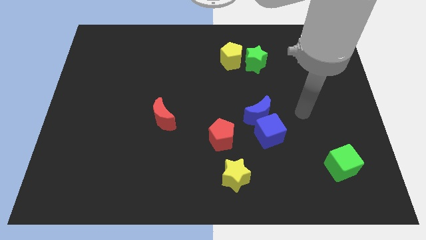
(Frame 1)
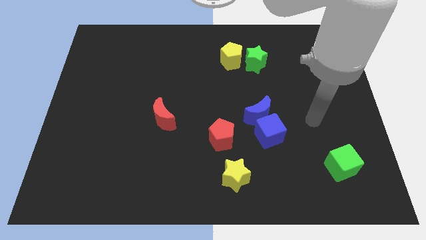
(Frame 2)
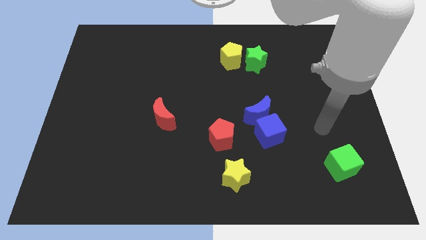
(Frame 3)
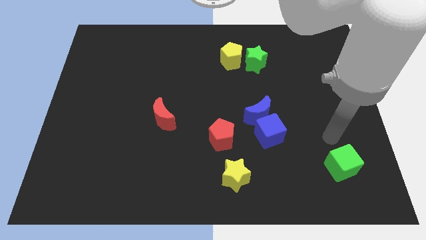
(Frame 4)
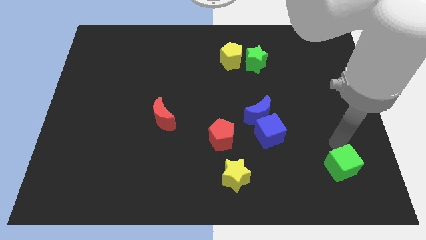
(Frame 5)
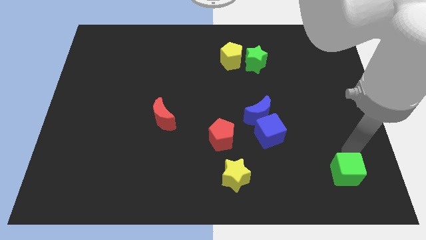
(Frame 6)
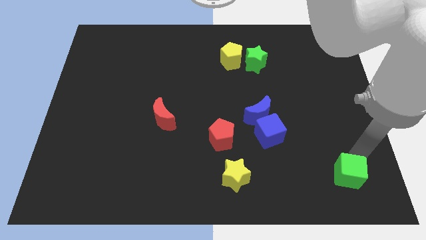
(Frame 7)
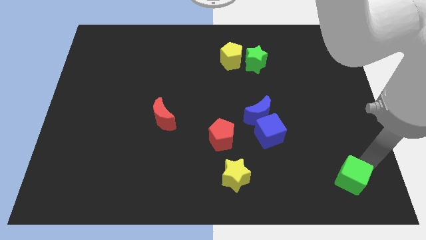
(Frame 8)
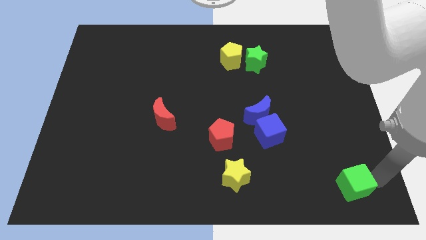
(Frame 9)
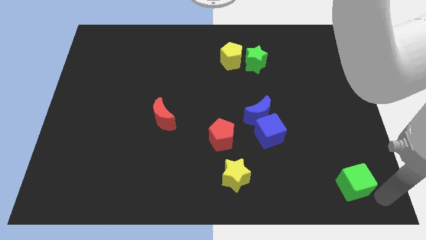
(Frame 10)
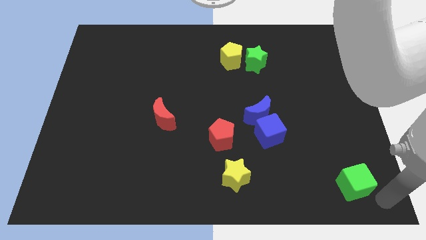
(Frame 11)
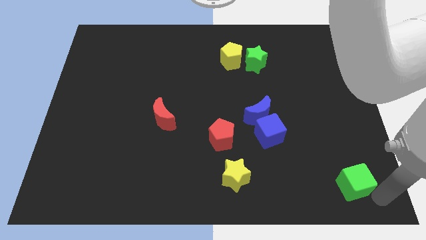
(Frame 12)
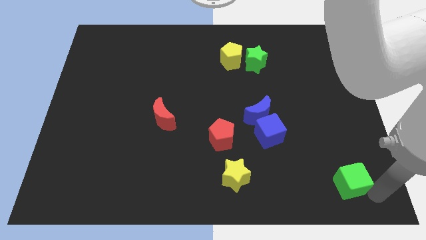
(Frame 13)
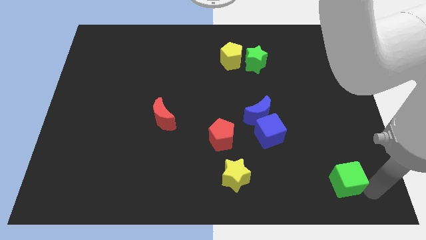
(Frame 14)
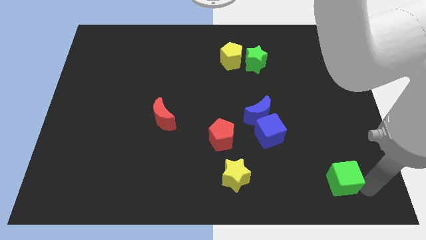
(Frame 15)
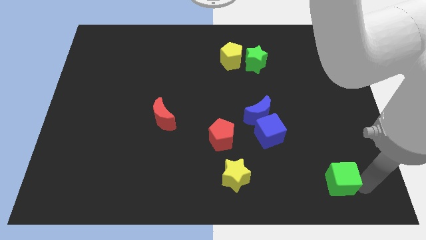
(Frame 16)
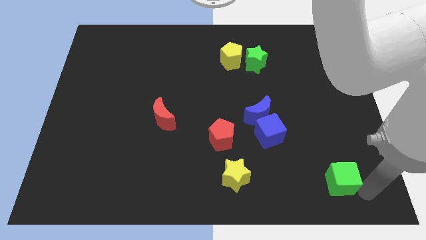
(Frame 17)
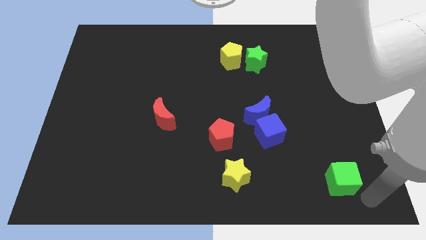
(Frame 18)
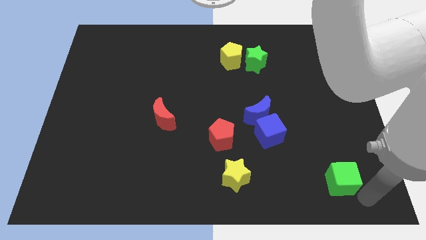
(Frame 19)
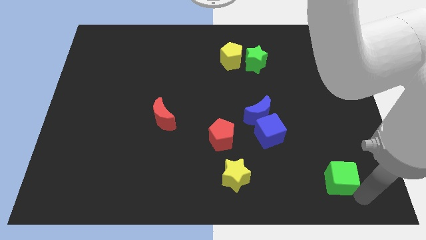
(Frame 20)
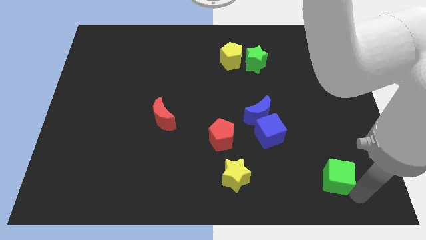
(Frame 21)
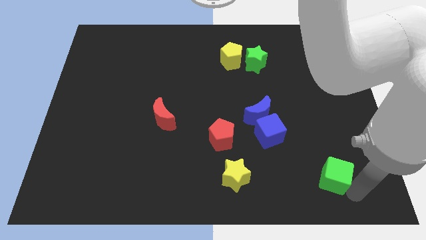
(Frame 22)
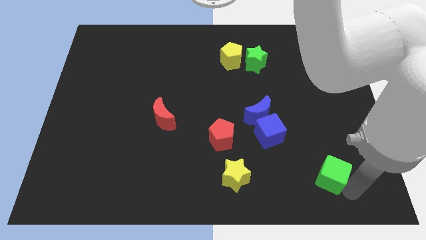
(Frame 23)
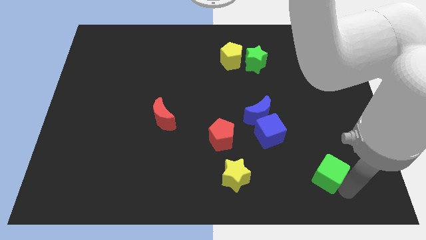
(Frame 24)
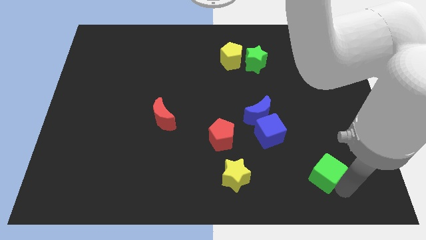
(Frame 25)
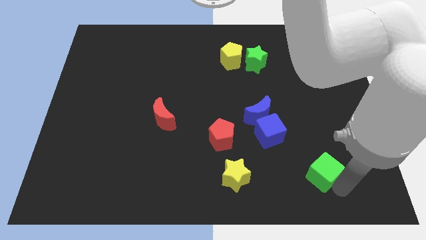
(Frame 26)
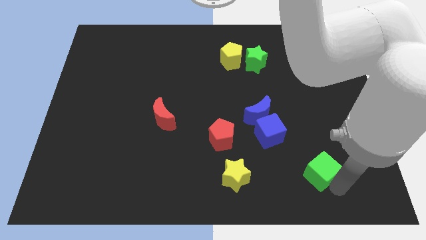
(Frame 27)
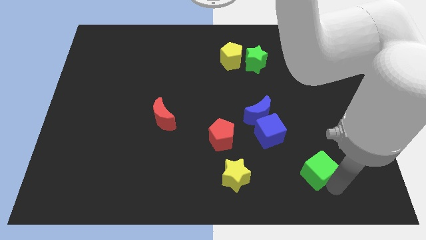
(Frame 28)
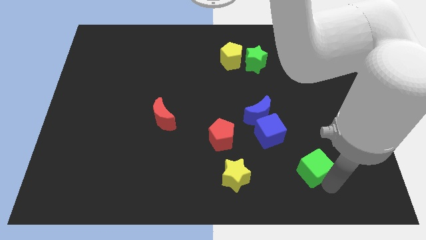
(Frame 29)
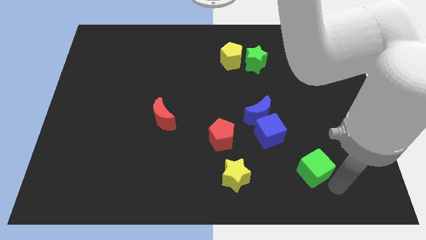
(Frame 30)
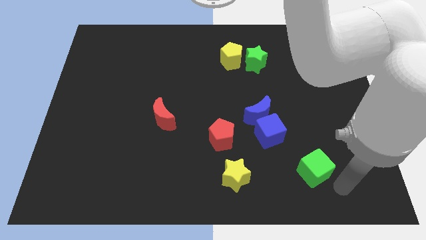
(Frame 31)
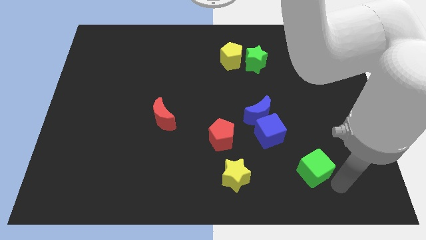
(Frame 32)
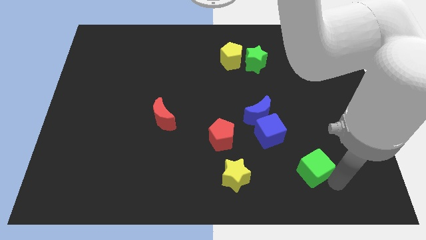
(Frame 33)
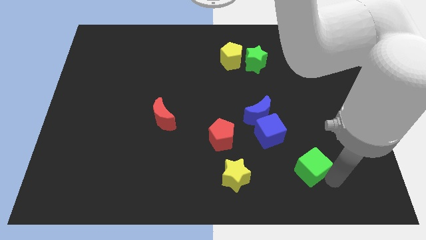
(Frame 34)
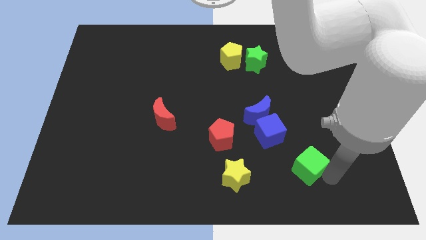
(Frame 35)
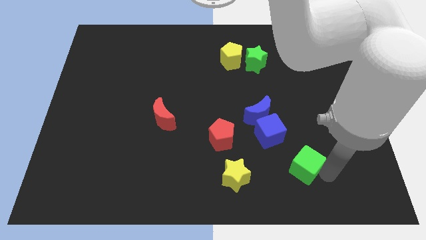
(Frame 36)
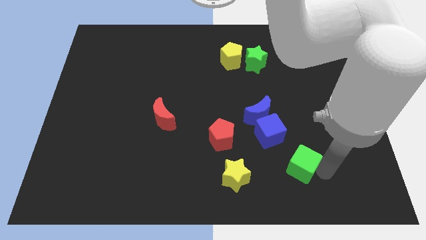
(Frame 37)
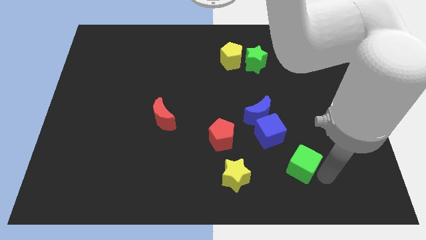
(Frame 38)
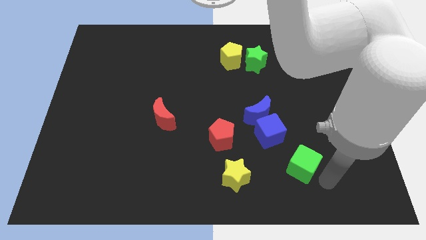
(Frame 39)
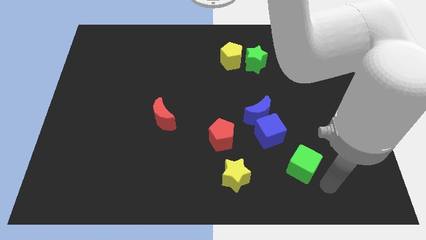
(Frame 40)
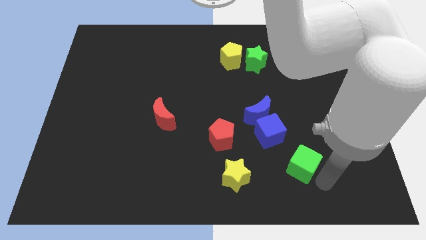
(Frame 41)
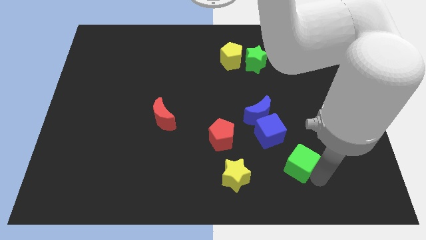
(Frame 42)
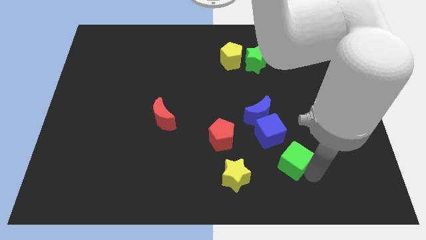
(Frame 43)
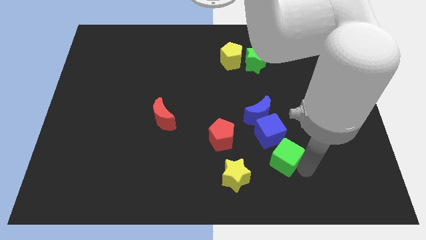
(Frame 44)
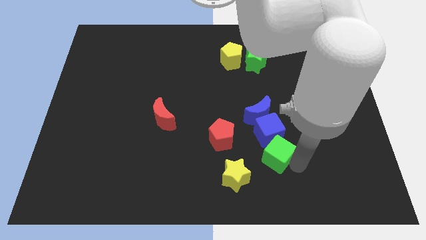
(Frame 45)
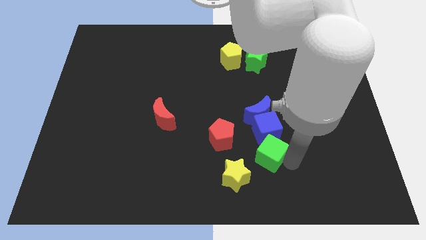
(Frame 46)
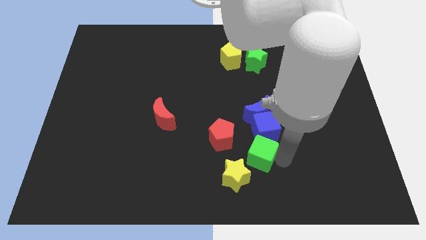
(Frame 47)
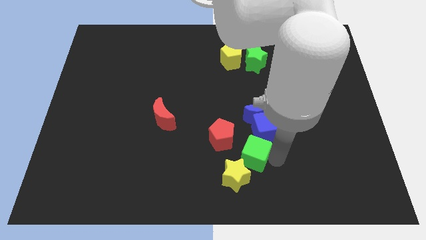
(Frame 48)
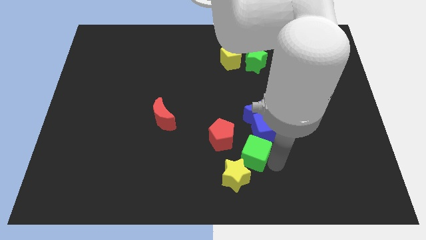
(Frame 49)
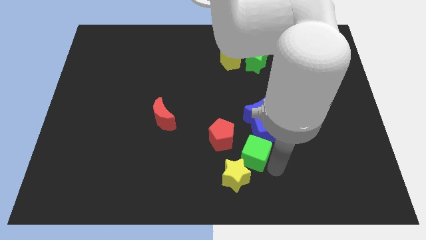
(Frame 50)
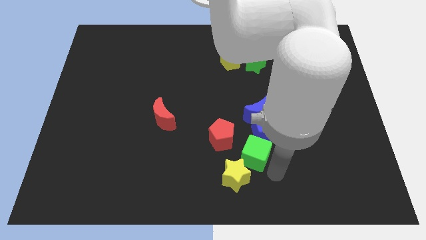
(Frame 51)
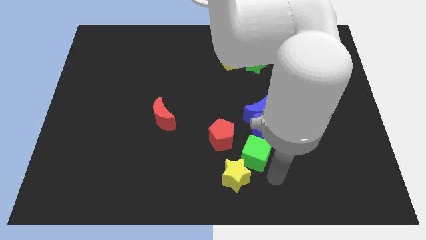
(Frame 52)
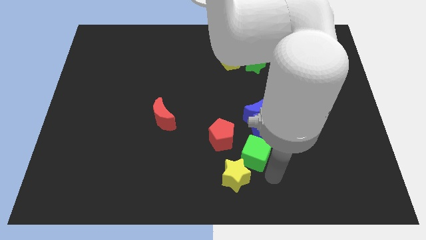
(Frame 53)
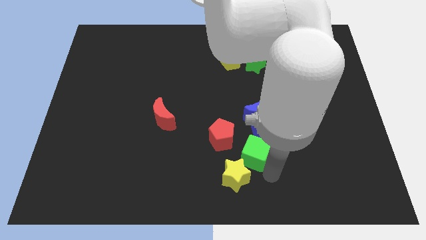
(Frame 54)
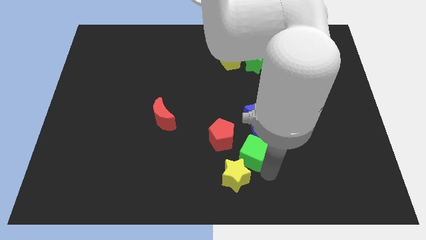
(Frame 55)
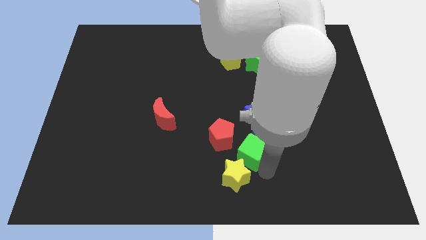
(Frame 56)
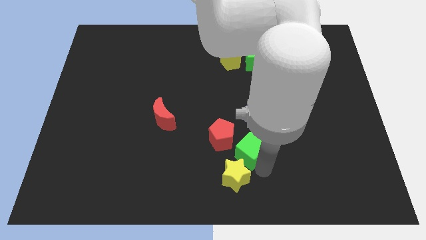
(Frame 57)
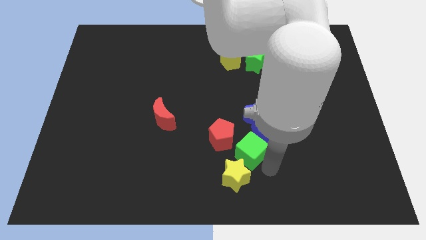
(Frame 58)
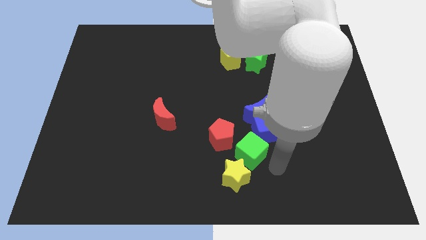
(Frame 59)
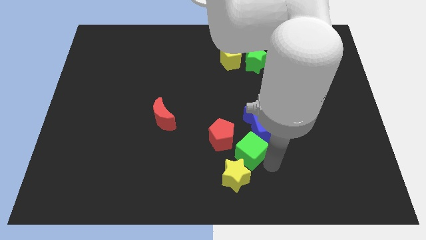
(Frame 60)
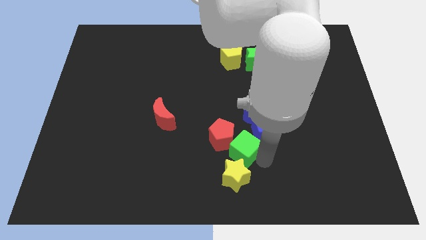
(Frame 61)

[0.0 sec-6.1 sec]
move the green cube to the red pentagon
